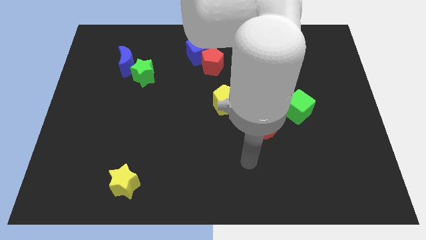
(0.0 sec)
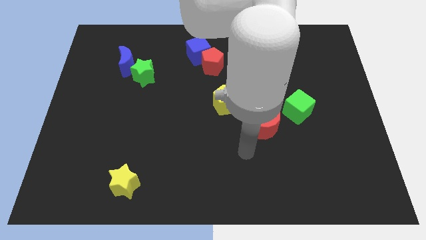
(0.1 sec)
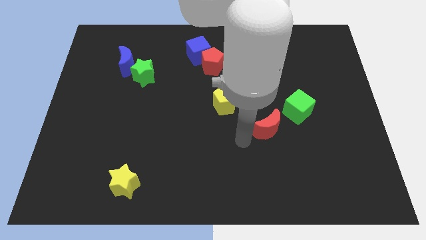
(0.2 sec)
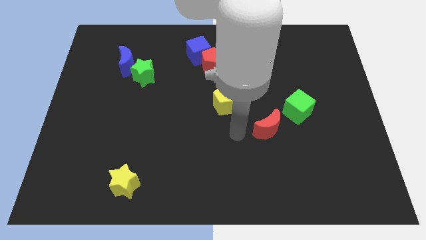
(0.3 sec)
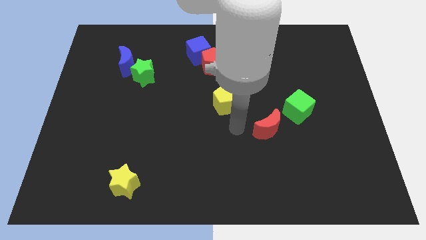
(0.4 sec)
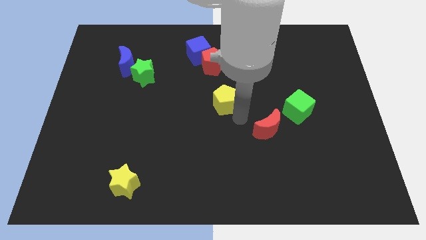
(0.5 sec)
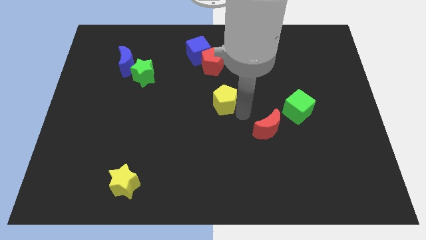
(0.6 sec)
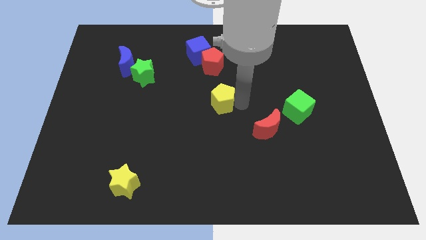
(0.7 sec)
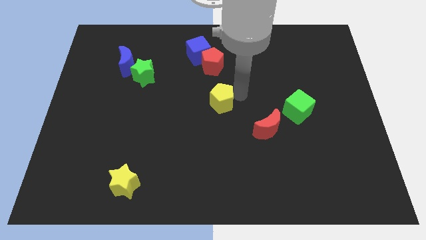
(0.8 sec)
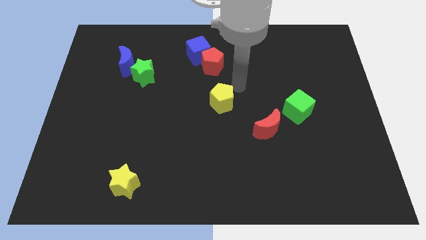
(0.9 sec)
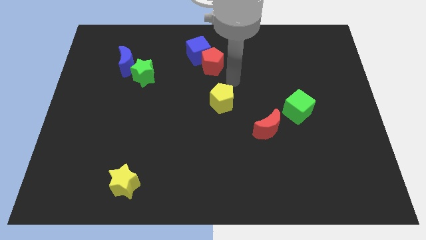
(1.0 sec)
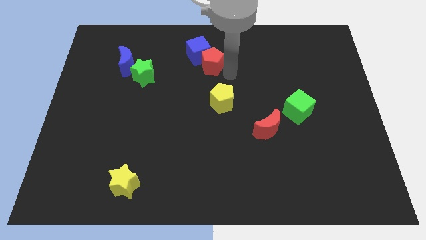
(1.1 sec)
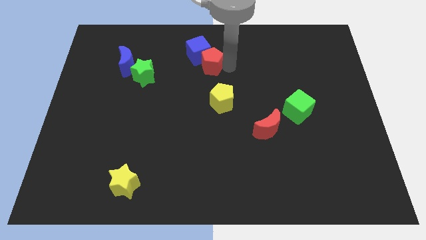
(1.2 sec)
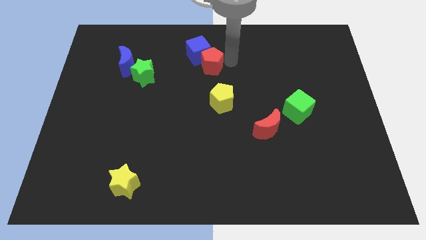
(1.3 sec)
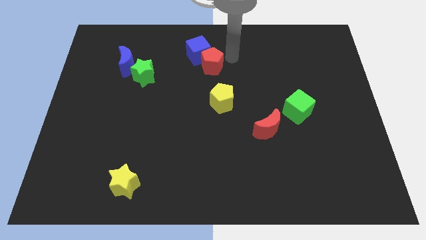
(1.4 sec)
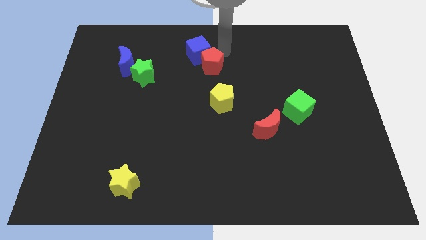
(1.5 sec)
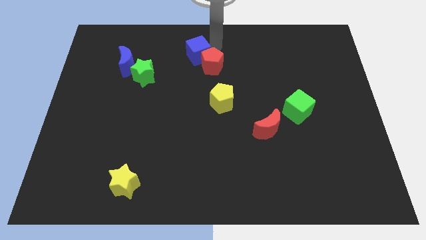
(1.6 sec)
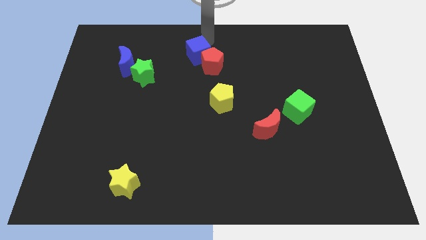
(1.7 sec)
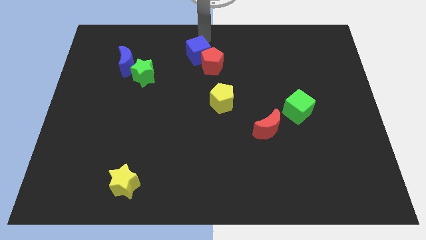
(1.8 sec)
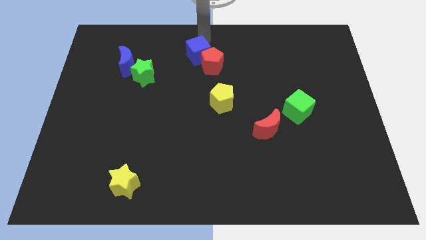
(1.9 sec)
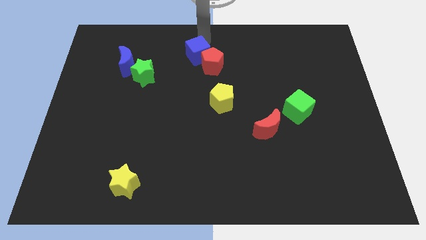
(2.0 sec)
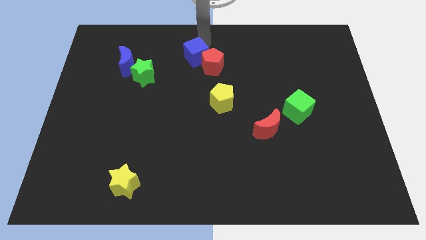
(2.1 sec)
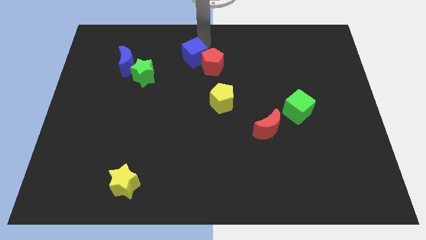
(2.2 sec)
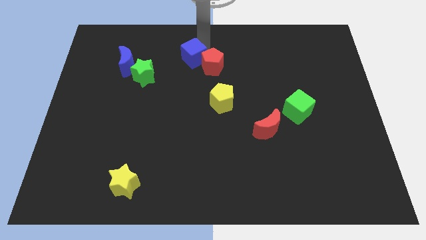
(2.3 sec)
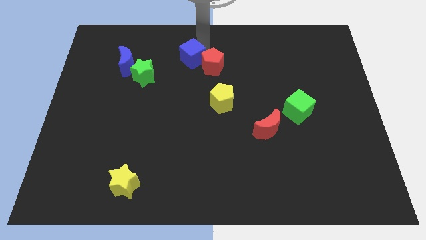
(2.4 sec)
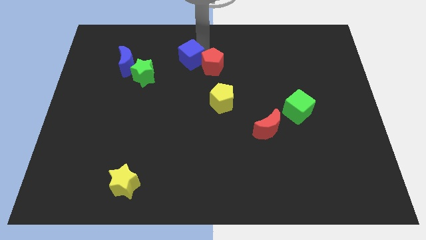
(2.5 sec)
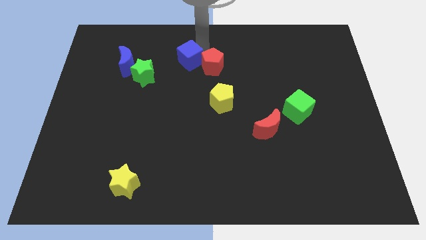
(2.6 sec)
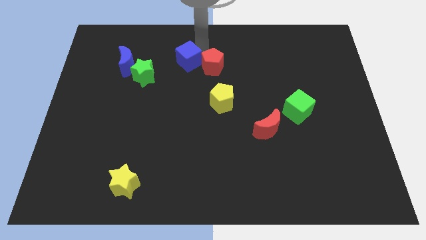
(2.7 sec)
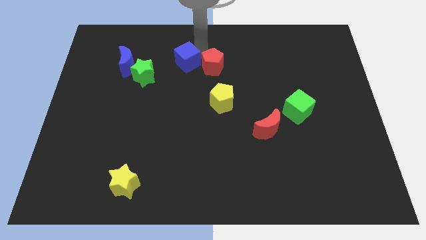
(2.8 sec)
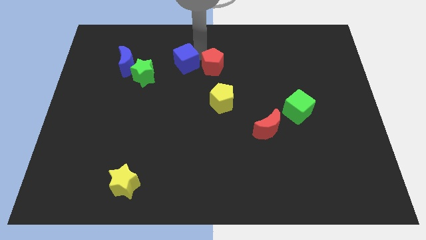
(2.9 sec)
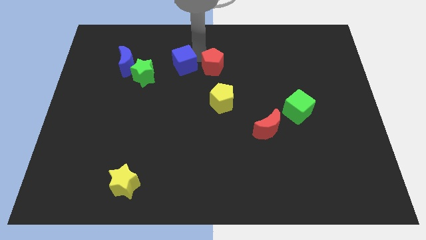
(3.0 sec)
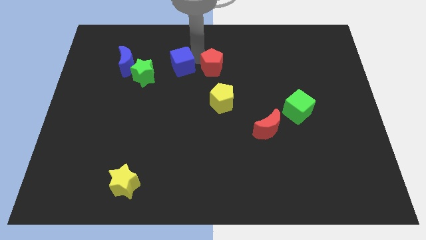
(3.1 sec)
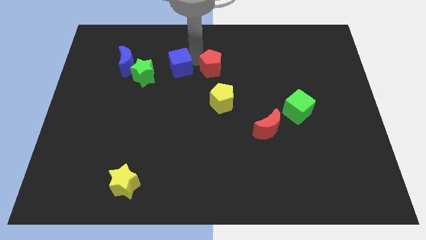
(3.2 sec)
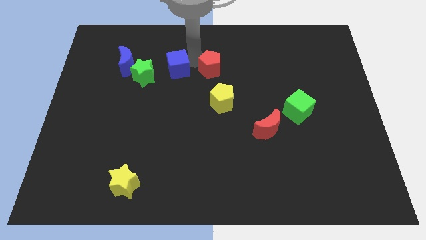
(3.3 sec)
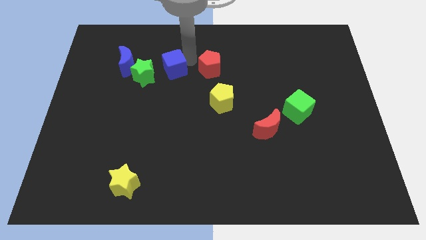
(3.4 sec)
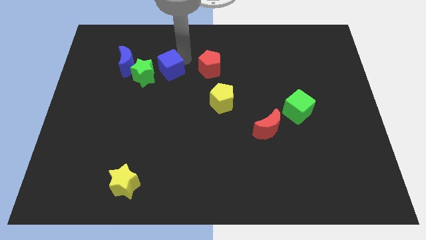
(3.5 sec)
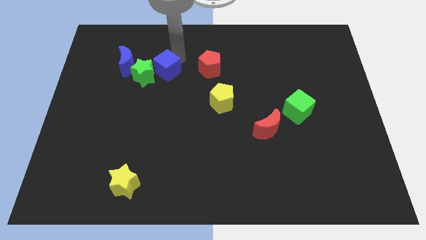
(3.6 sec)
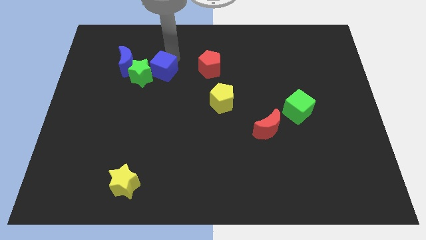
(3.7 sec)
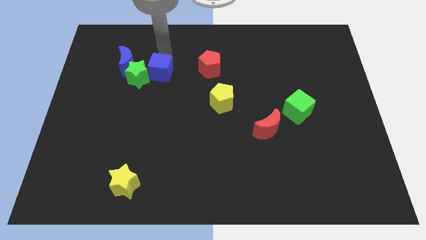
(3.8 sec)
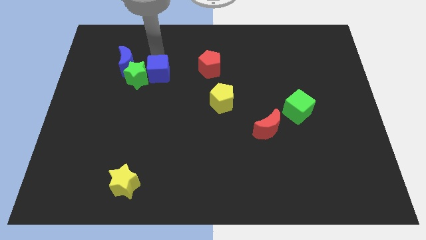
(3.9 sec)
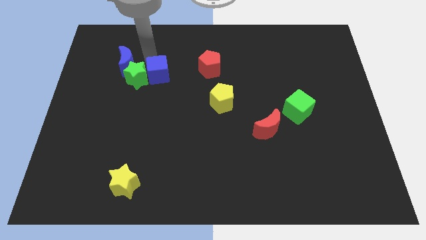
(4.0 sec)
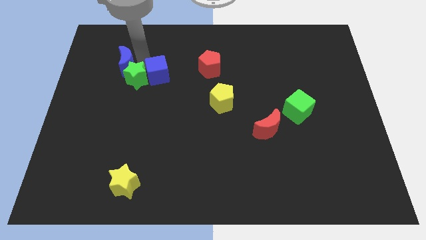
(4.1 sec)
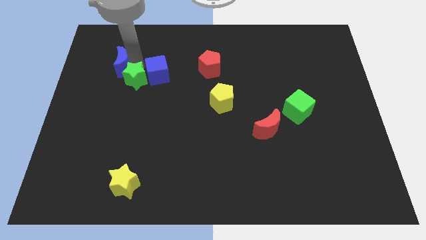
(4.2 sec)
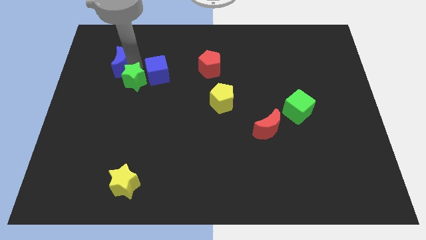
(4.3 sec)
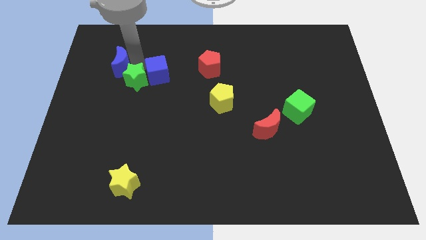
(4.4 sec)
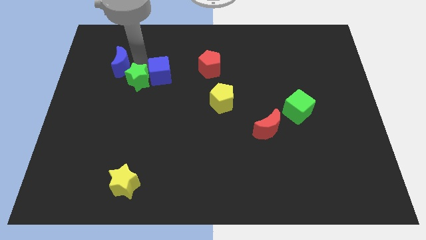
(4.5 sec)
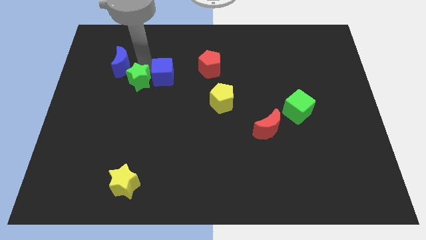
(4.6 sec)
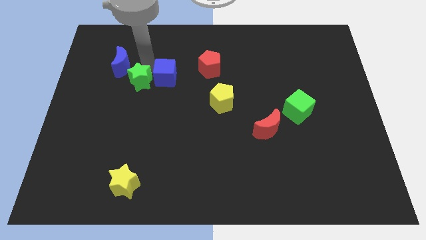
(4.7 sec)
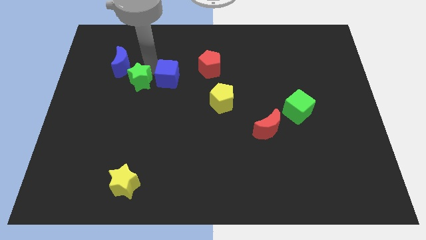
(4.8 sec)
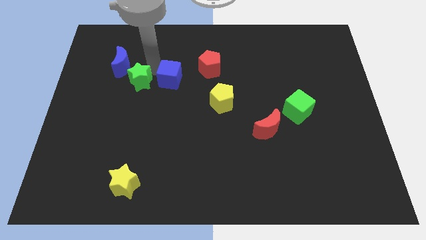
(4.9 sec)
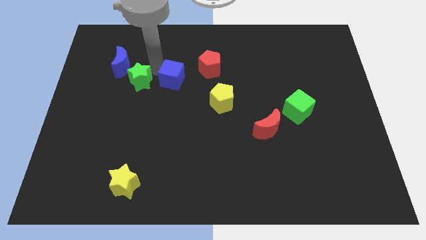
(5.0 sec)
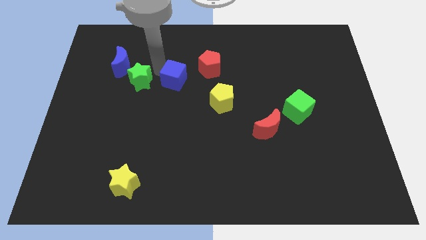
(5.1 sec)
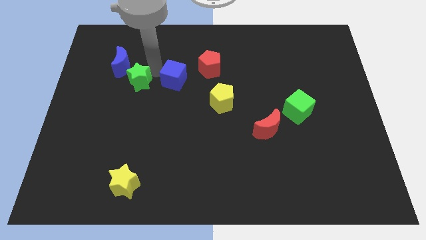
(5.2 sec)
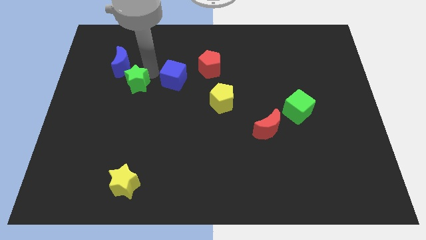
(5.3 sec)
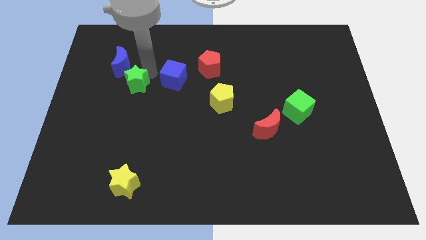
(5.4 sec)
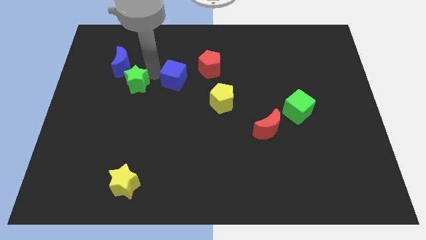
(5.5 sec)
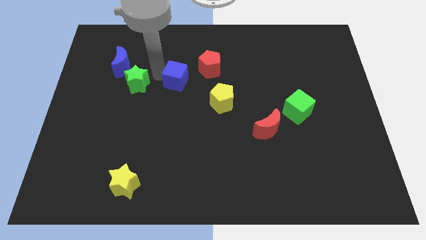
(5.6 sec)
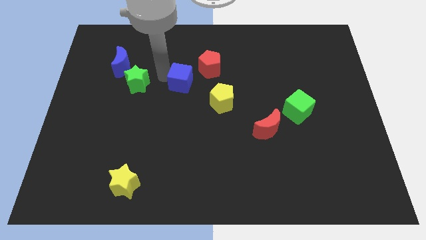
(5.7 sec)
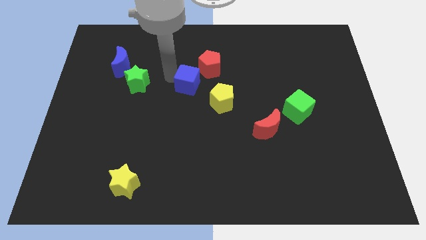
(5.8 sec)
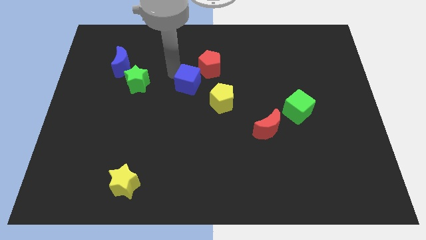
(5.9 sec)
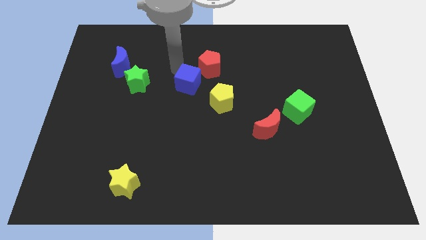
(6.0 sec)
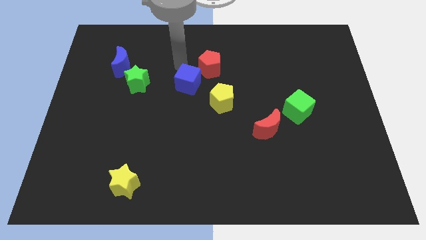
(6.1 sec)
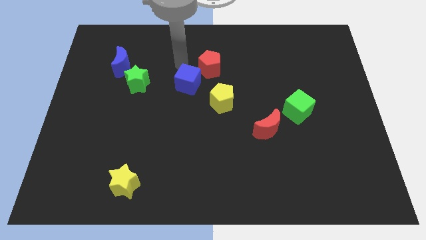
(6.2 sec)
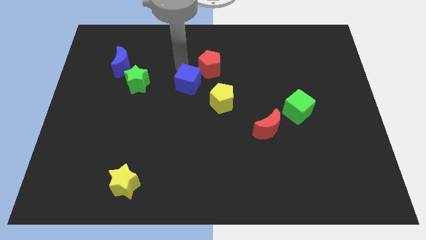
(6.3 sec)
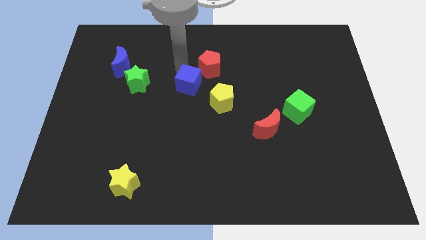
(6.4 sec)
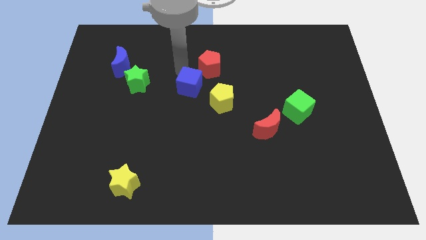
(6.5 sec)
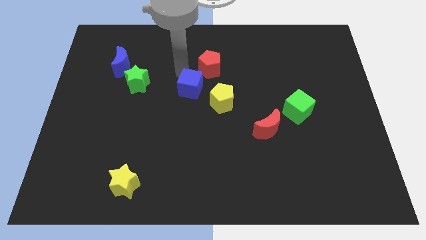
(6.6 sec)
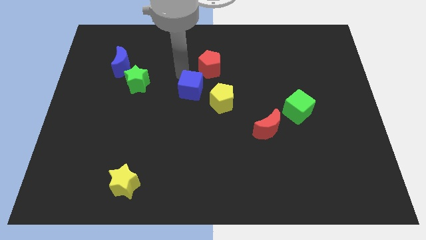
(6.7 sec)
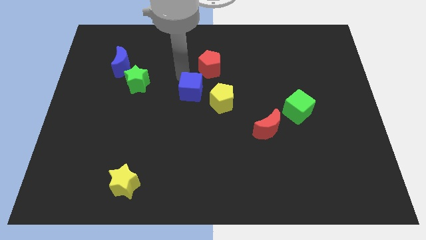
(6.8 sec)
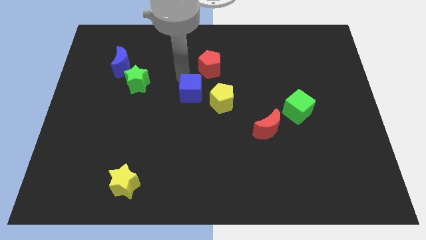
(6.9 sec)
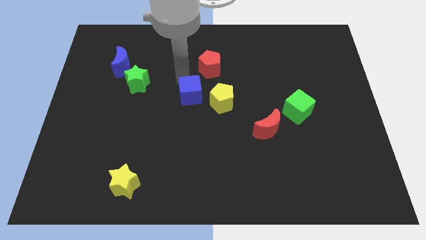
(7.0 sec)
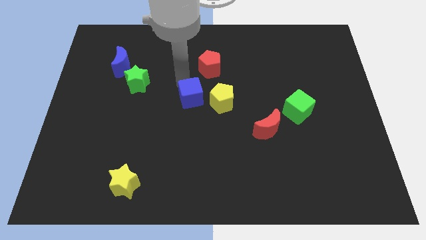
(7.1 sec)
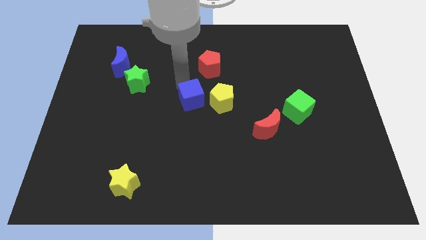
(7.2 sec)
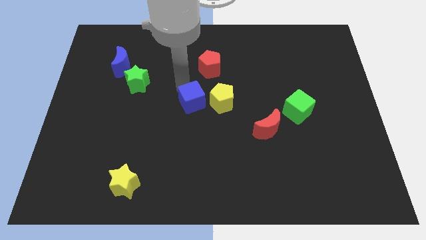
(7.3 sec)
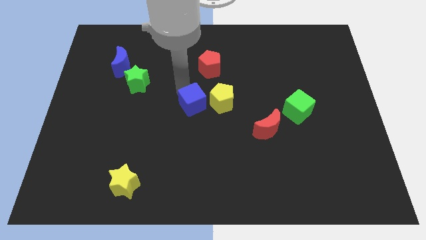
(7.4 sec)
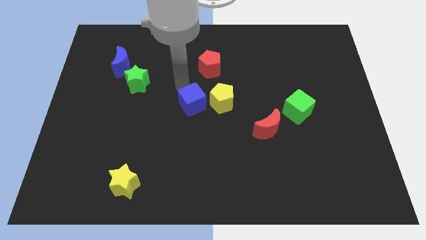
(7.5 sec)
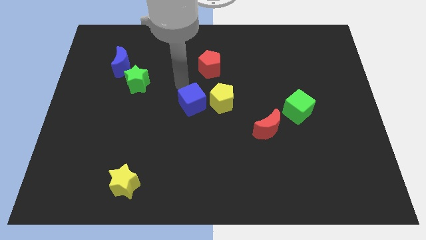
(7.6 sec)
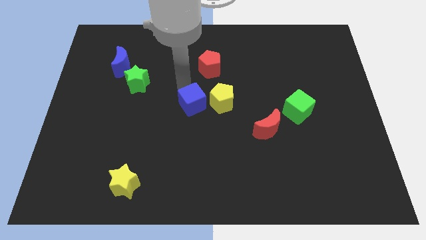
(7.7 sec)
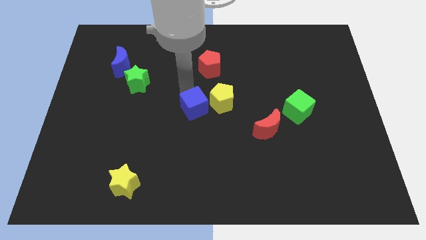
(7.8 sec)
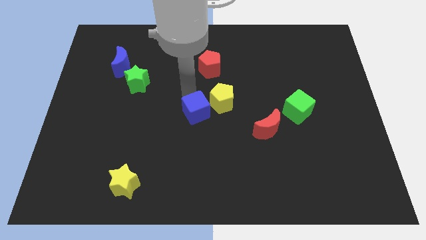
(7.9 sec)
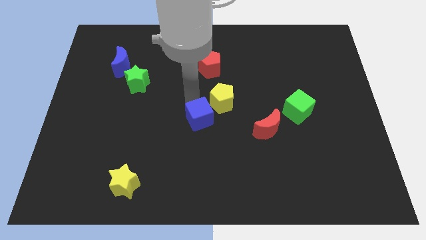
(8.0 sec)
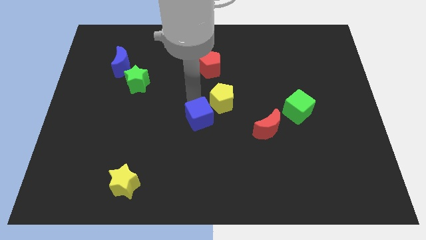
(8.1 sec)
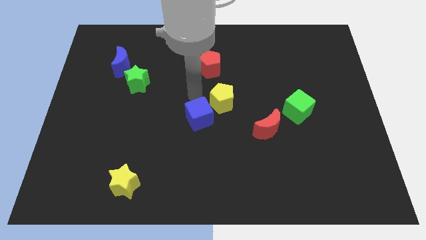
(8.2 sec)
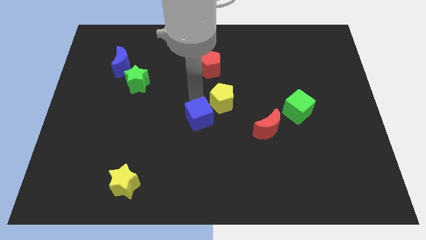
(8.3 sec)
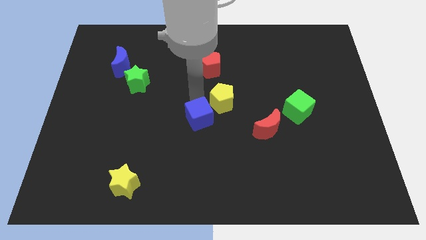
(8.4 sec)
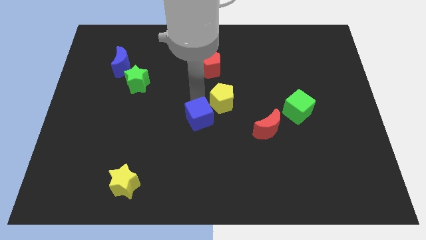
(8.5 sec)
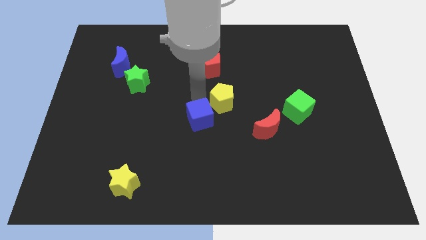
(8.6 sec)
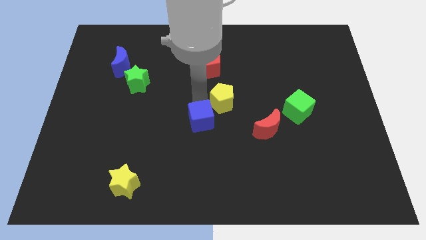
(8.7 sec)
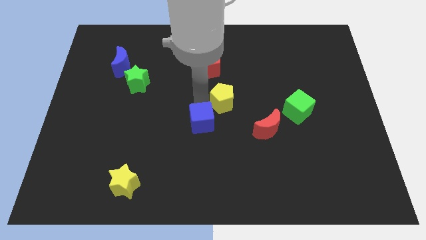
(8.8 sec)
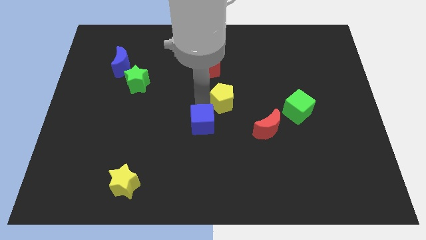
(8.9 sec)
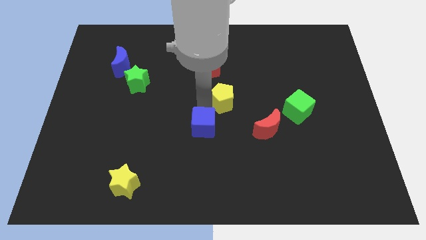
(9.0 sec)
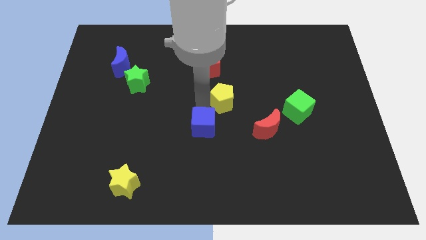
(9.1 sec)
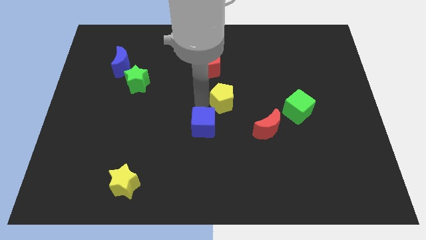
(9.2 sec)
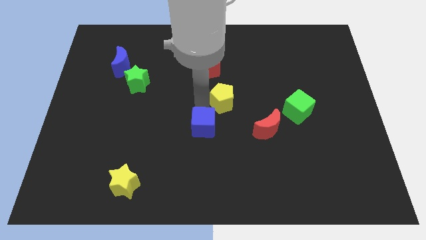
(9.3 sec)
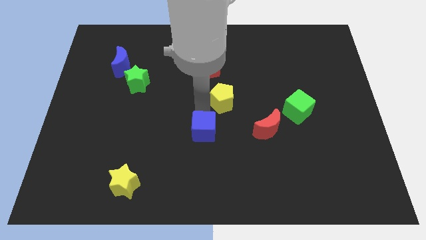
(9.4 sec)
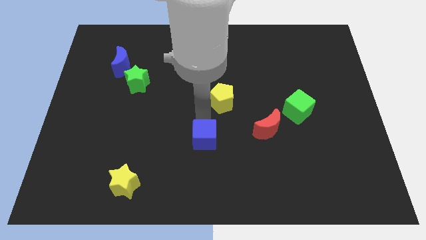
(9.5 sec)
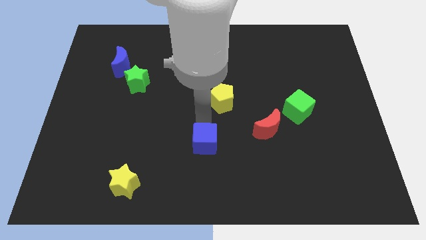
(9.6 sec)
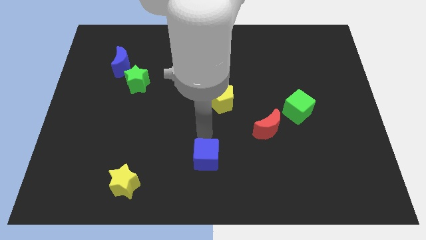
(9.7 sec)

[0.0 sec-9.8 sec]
slide the blue cube to the bottom side
